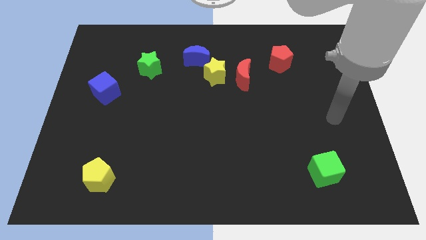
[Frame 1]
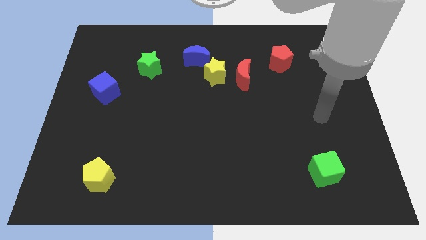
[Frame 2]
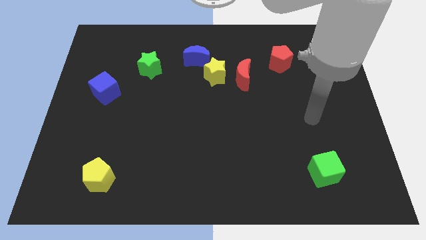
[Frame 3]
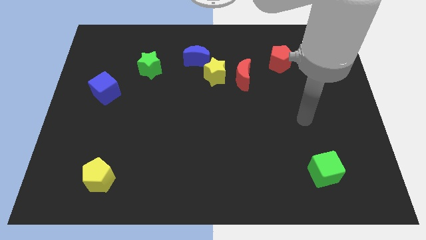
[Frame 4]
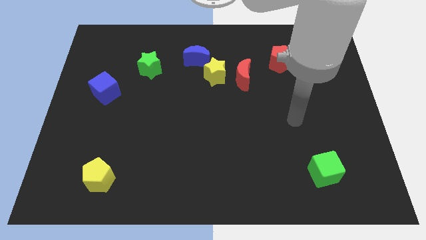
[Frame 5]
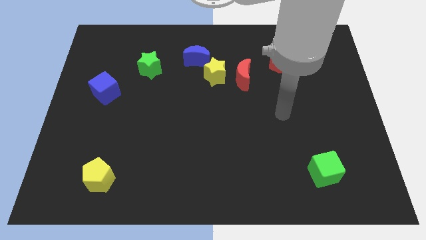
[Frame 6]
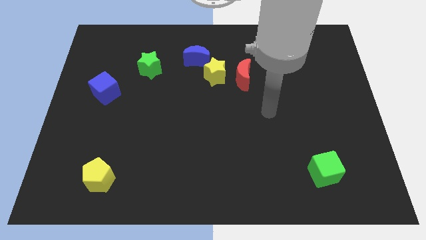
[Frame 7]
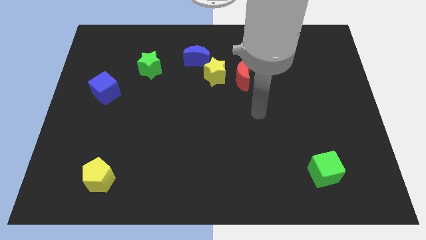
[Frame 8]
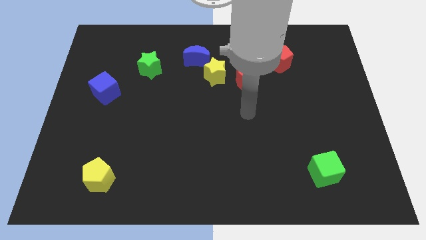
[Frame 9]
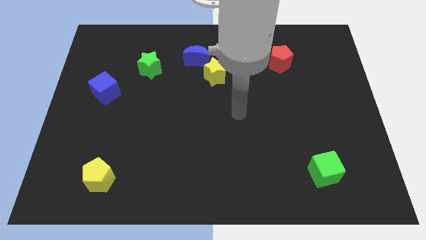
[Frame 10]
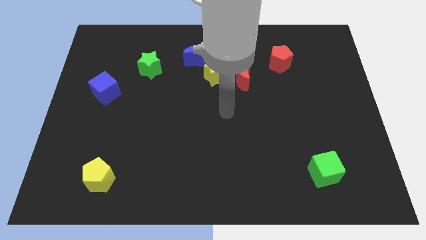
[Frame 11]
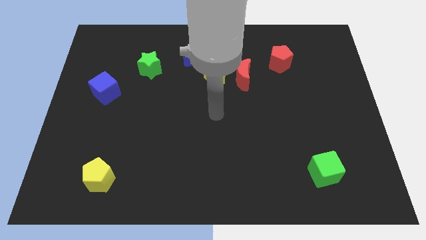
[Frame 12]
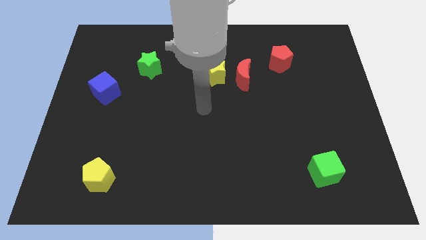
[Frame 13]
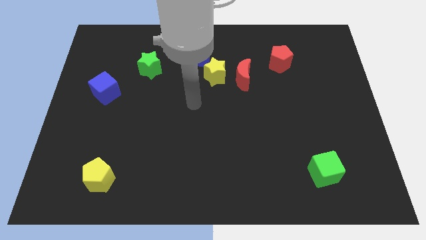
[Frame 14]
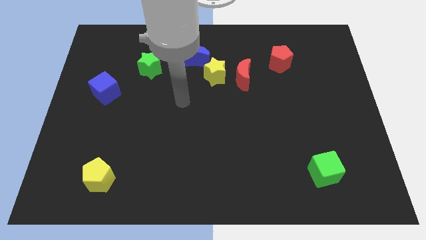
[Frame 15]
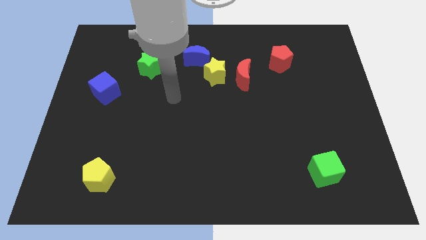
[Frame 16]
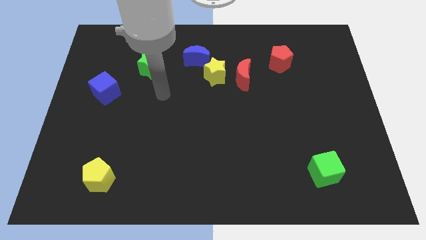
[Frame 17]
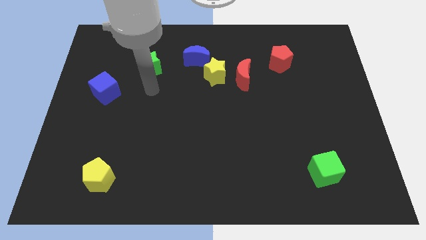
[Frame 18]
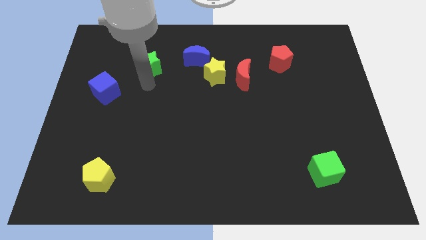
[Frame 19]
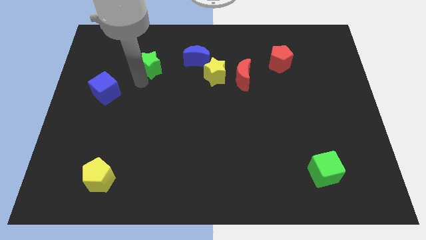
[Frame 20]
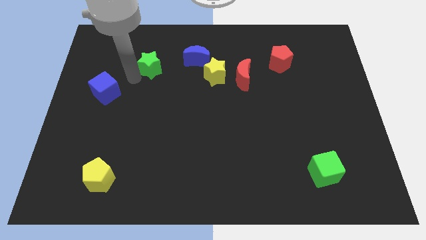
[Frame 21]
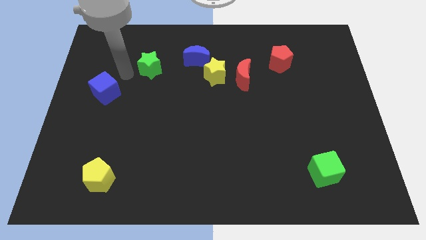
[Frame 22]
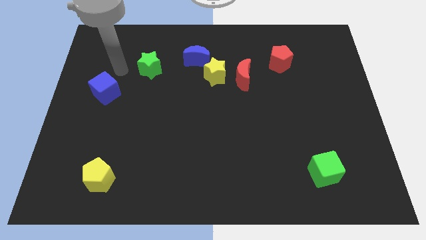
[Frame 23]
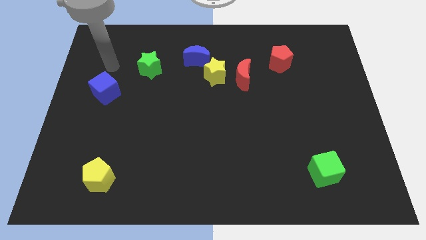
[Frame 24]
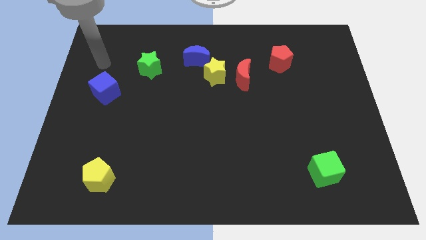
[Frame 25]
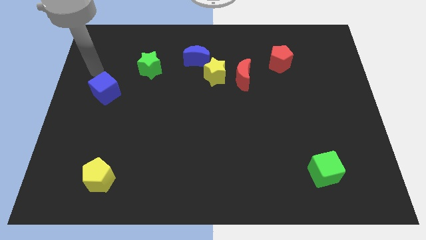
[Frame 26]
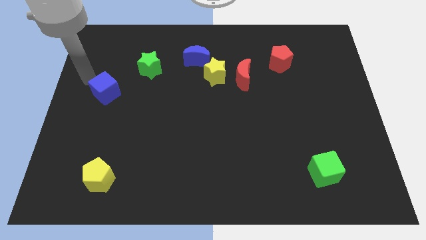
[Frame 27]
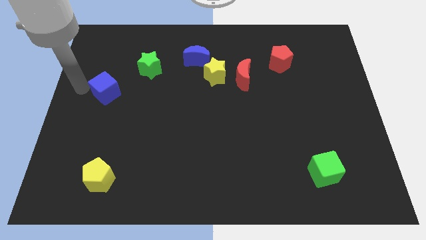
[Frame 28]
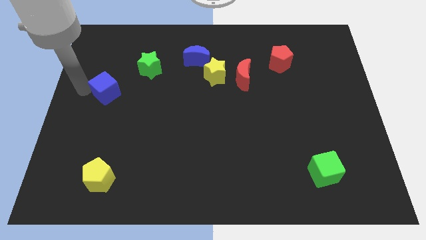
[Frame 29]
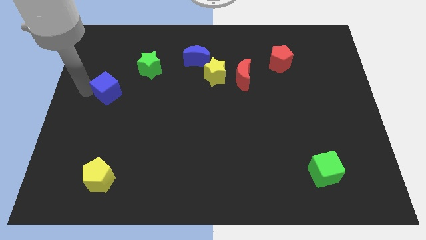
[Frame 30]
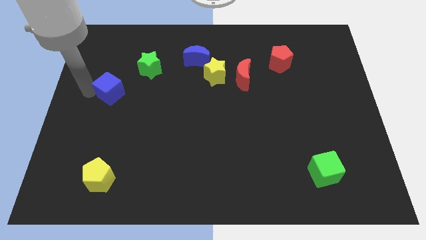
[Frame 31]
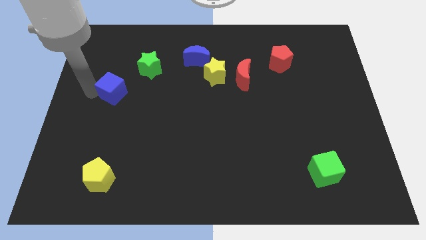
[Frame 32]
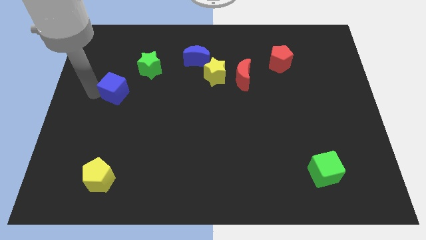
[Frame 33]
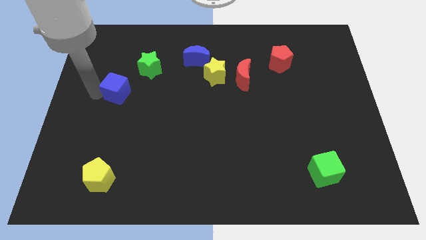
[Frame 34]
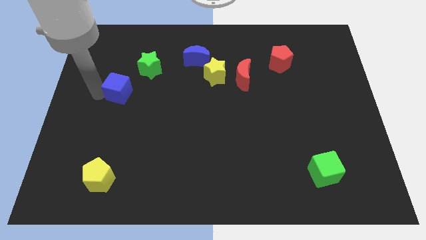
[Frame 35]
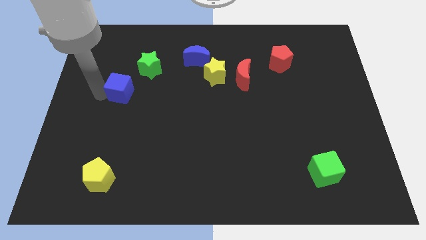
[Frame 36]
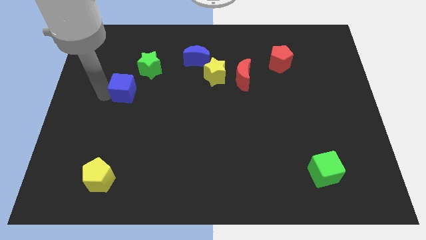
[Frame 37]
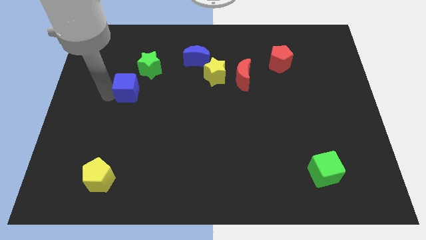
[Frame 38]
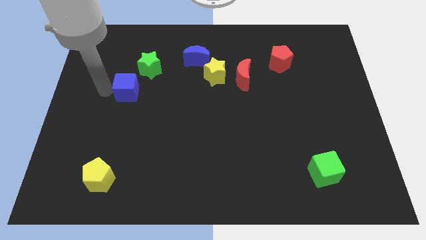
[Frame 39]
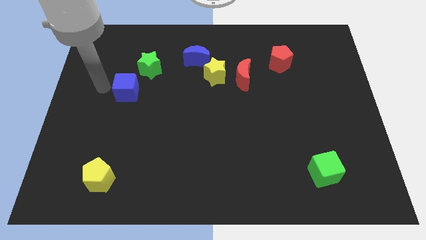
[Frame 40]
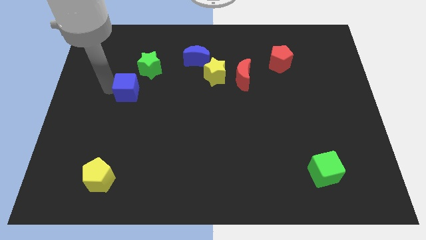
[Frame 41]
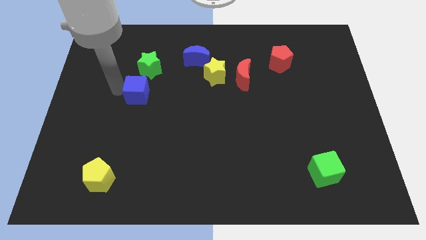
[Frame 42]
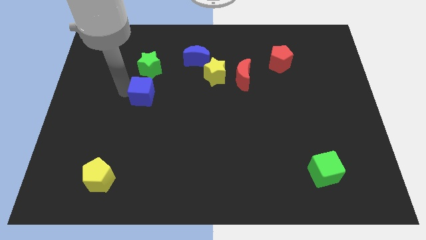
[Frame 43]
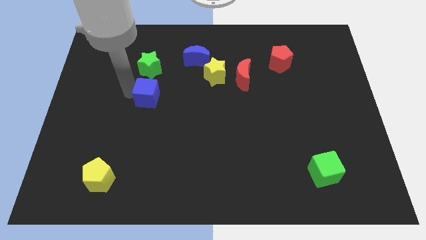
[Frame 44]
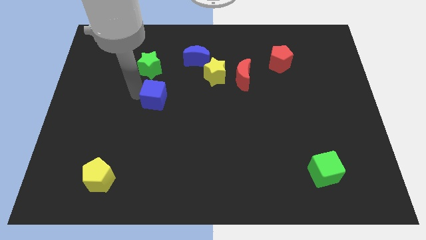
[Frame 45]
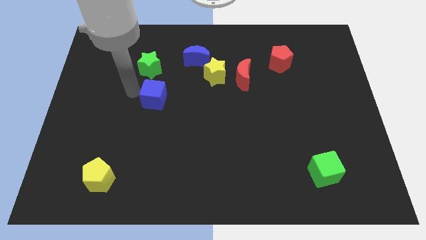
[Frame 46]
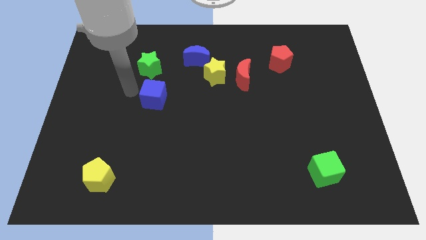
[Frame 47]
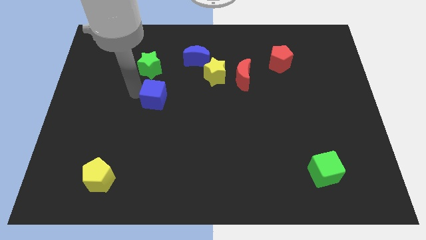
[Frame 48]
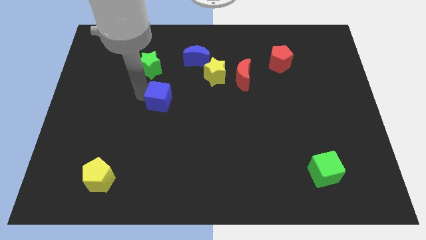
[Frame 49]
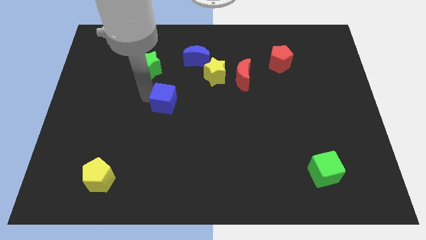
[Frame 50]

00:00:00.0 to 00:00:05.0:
push the blue cube to the center of the board

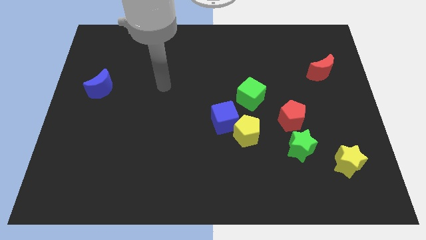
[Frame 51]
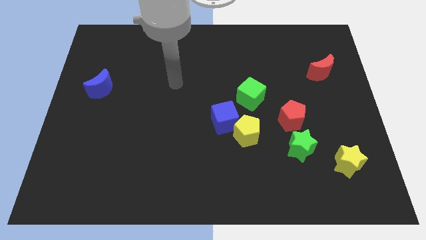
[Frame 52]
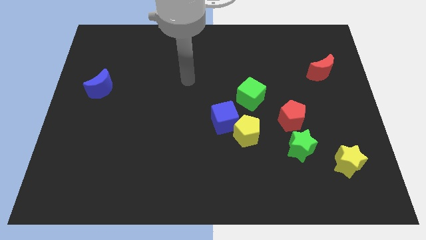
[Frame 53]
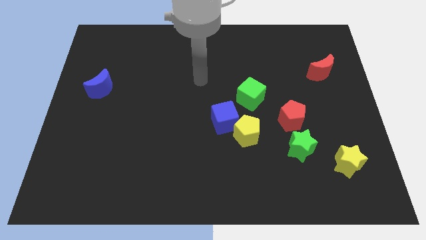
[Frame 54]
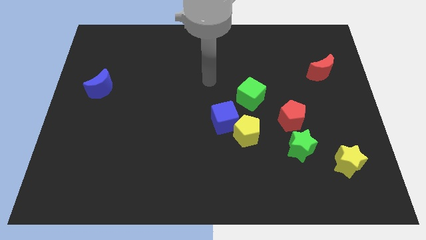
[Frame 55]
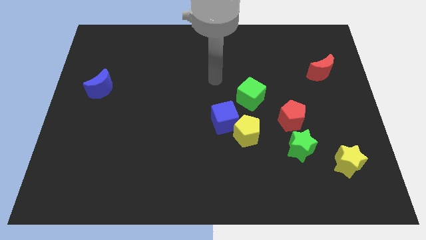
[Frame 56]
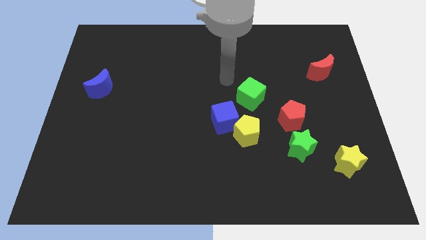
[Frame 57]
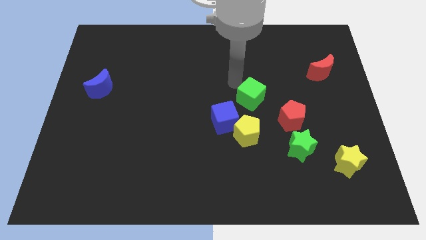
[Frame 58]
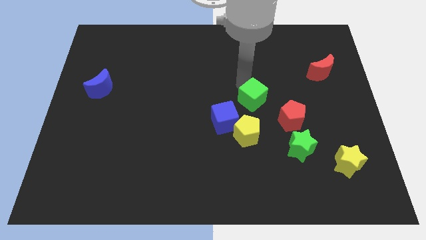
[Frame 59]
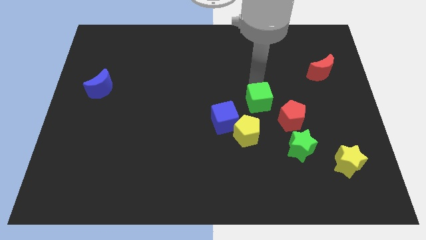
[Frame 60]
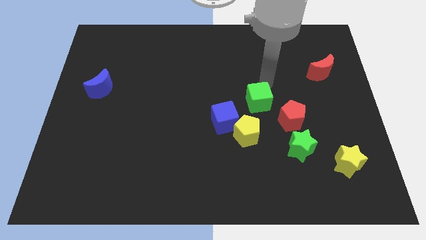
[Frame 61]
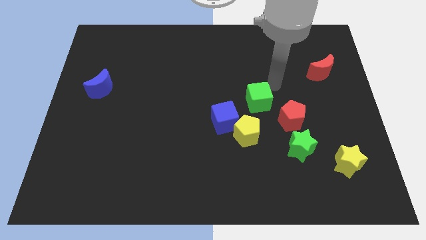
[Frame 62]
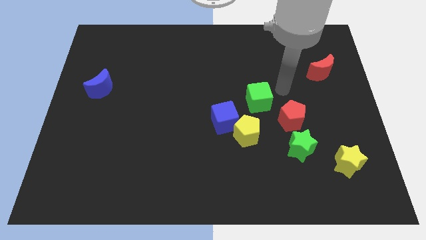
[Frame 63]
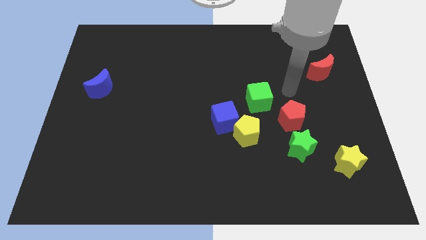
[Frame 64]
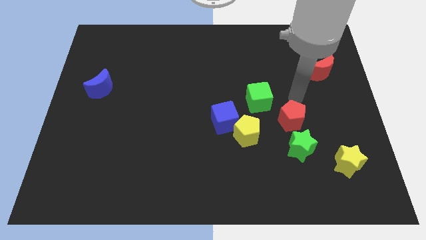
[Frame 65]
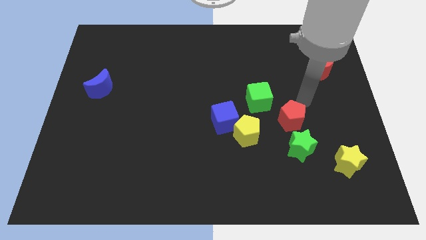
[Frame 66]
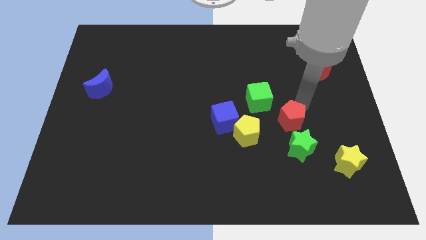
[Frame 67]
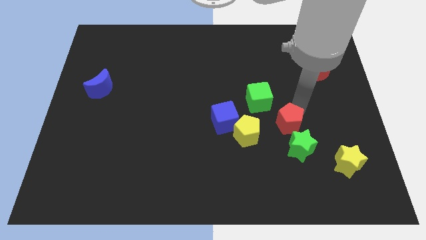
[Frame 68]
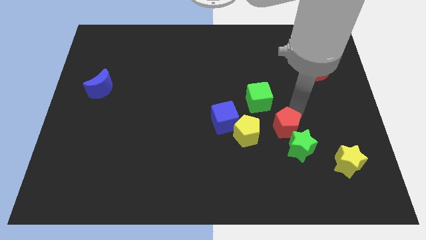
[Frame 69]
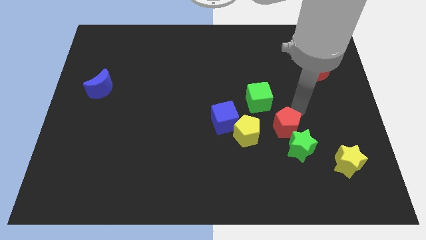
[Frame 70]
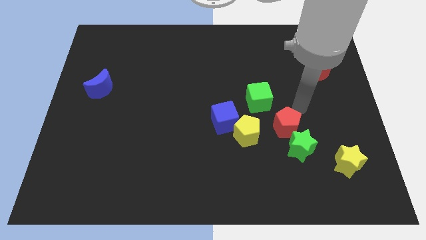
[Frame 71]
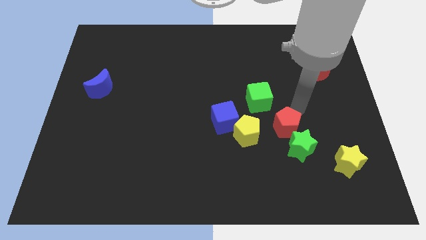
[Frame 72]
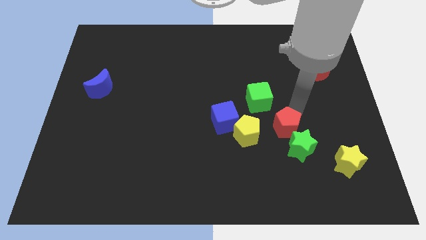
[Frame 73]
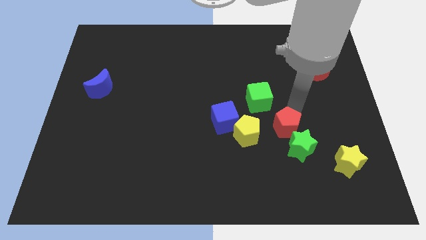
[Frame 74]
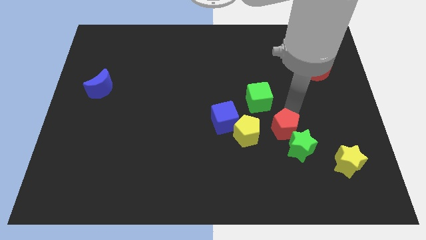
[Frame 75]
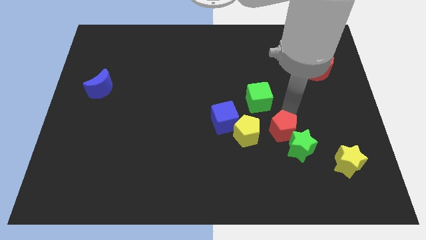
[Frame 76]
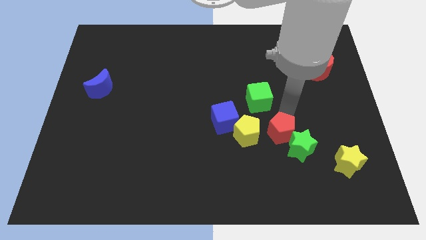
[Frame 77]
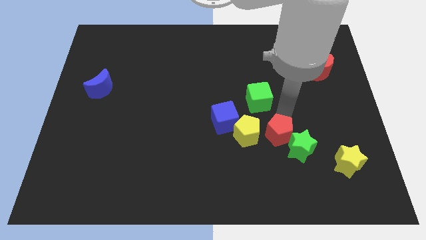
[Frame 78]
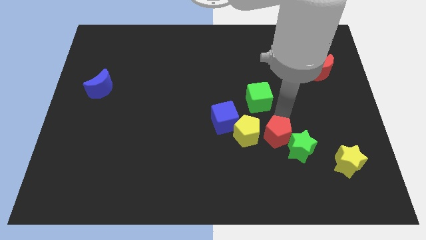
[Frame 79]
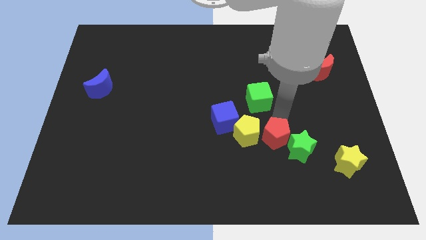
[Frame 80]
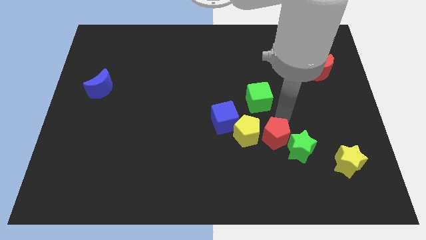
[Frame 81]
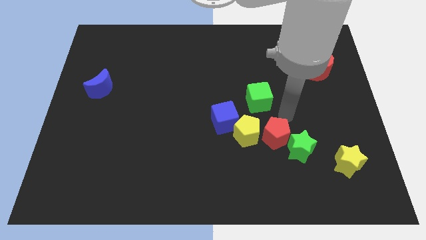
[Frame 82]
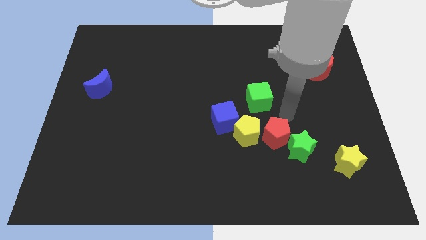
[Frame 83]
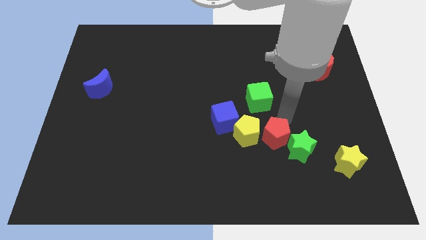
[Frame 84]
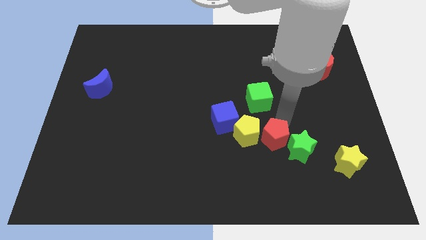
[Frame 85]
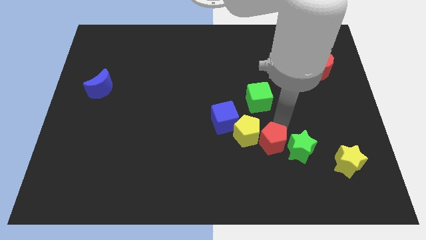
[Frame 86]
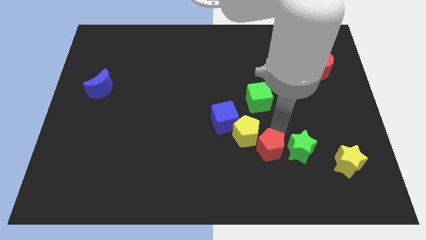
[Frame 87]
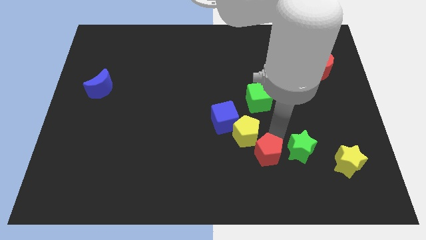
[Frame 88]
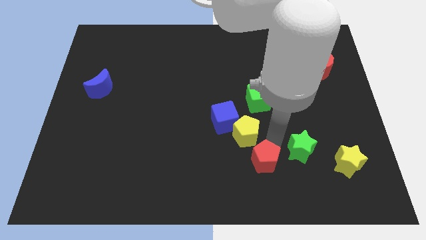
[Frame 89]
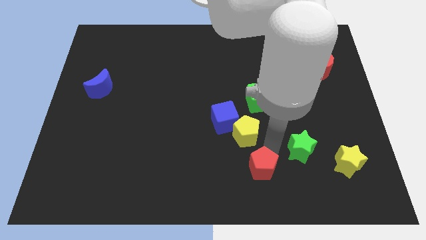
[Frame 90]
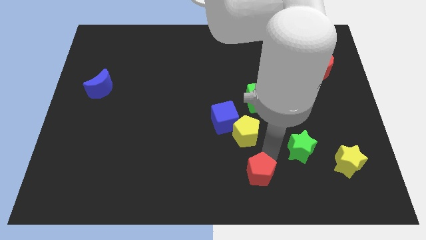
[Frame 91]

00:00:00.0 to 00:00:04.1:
move the red pentagon to the bottom
